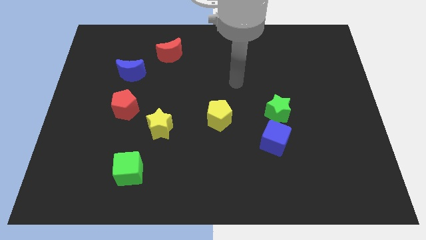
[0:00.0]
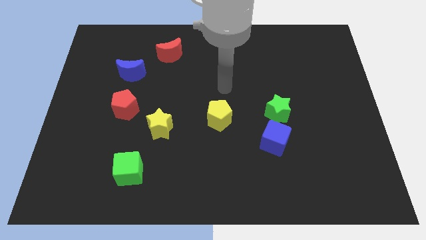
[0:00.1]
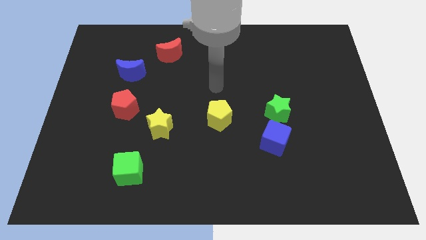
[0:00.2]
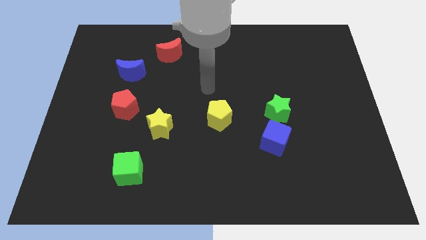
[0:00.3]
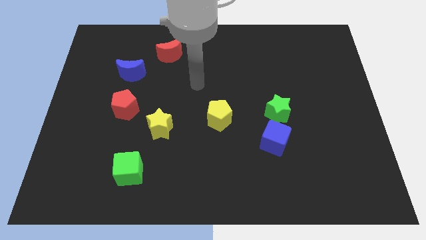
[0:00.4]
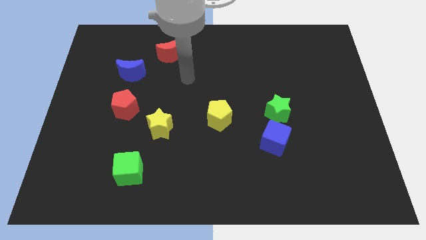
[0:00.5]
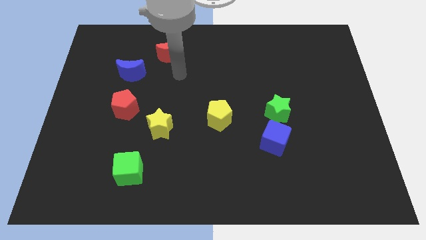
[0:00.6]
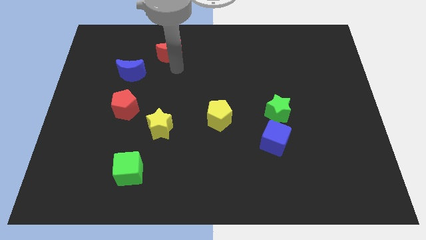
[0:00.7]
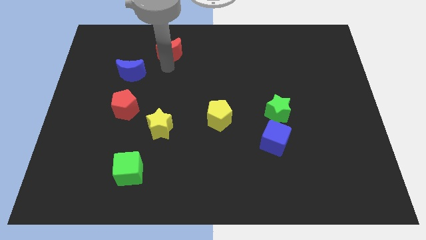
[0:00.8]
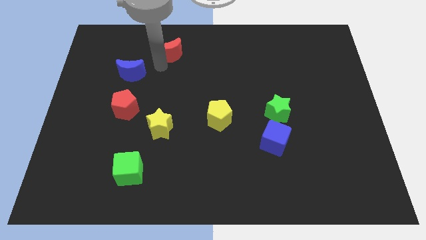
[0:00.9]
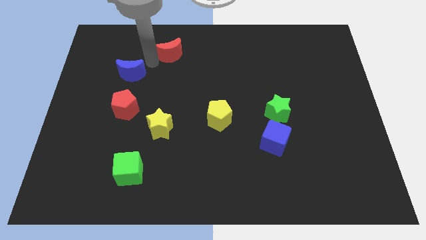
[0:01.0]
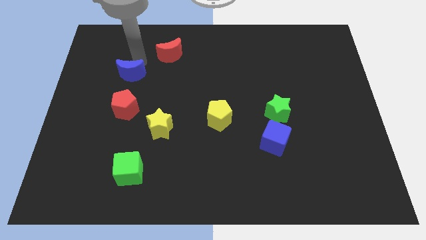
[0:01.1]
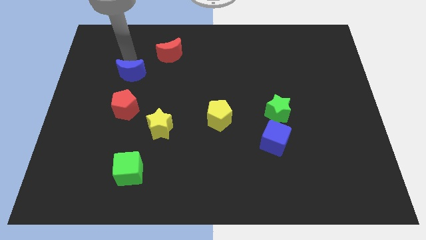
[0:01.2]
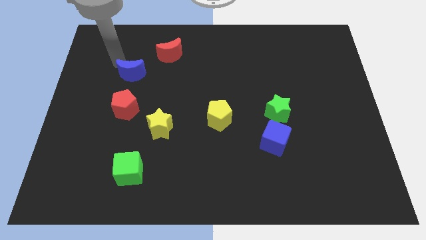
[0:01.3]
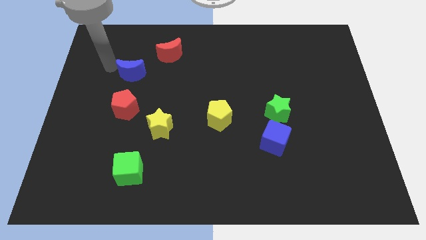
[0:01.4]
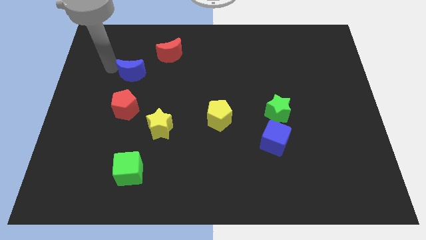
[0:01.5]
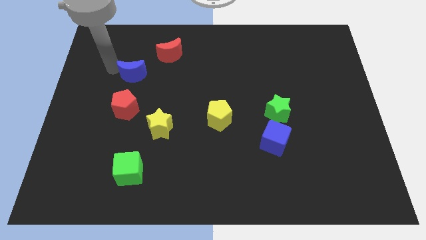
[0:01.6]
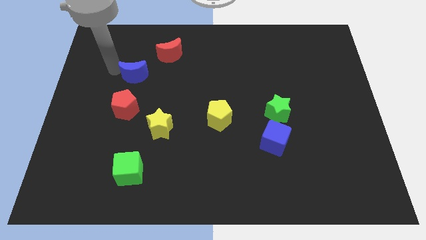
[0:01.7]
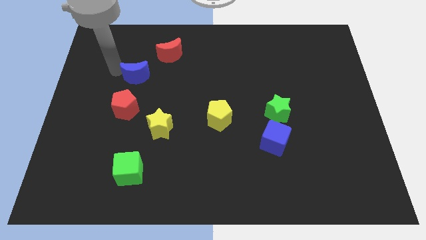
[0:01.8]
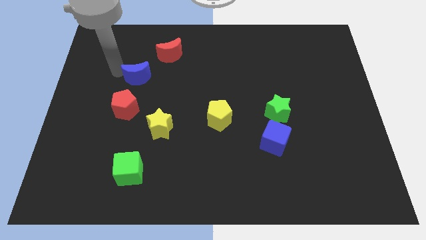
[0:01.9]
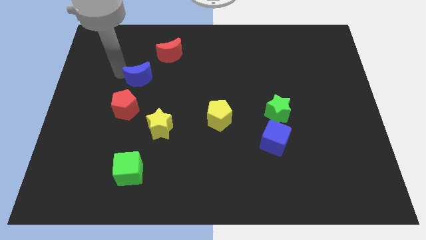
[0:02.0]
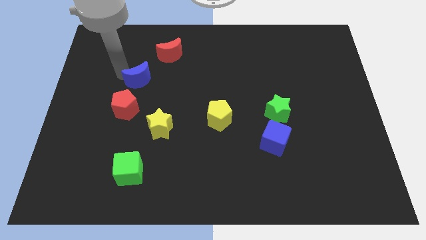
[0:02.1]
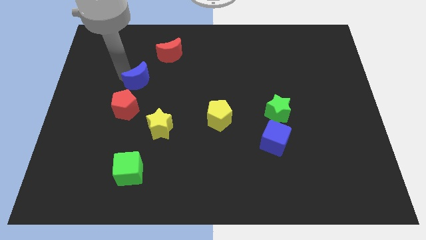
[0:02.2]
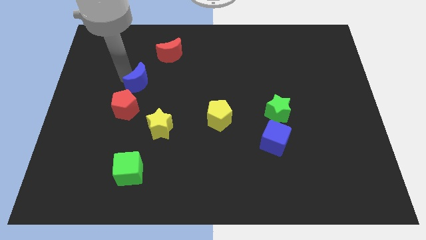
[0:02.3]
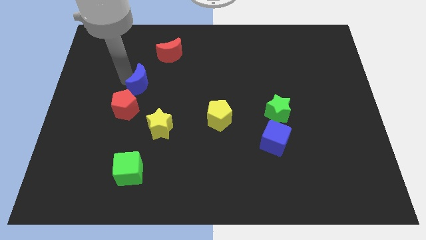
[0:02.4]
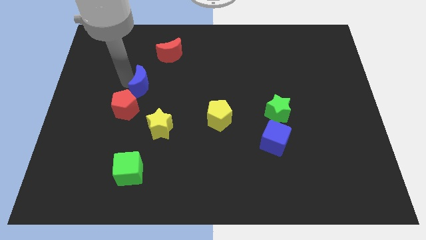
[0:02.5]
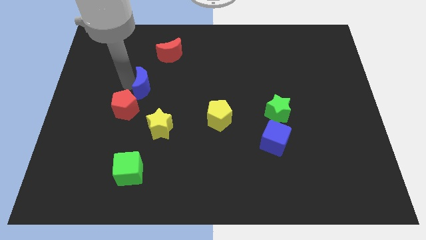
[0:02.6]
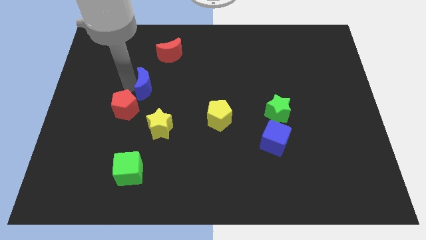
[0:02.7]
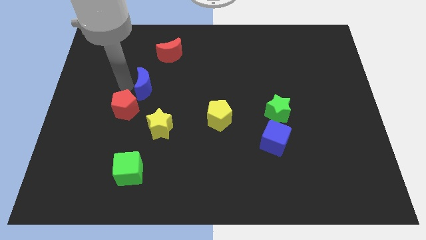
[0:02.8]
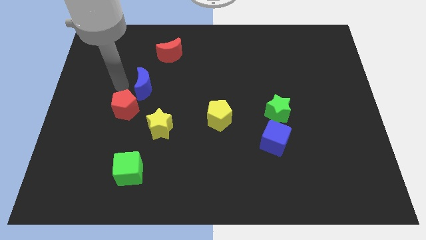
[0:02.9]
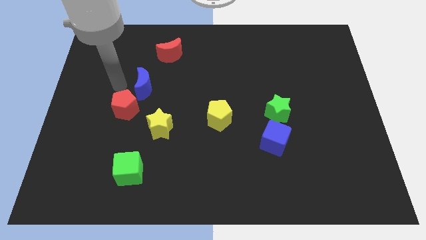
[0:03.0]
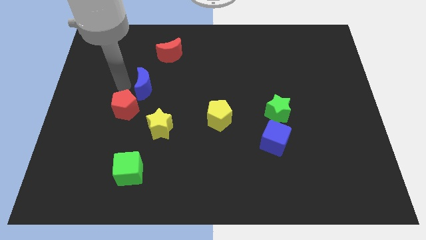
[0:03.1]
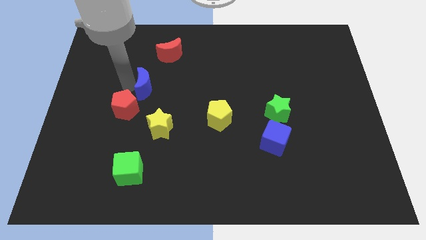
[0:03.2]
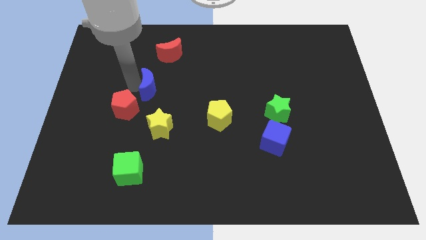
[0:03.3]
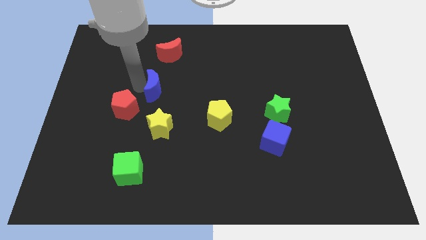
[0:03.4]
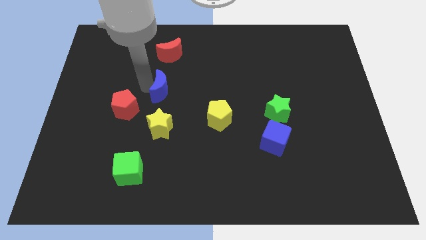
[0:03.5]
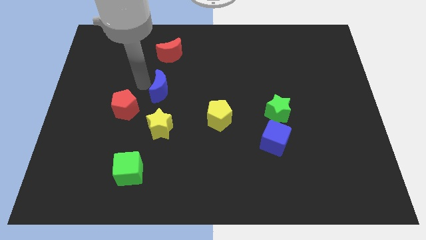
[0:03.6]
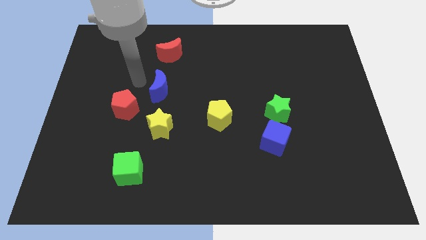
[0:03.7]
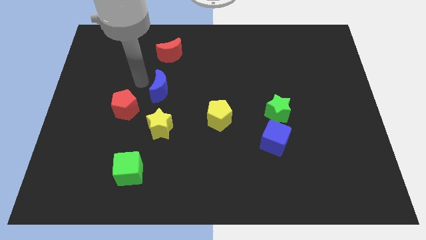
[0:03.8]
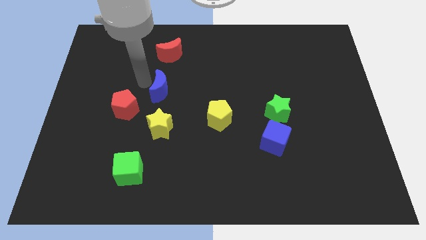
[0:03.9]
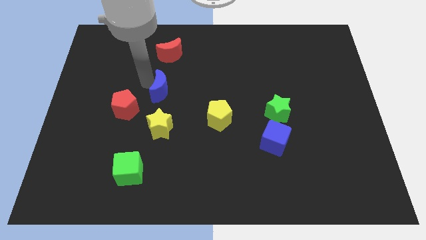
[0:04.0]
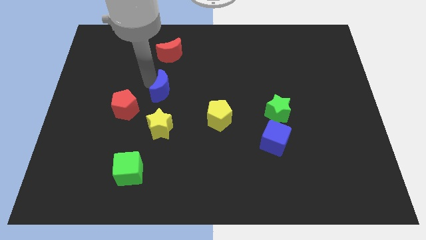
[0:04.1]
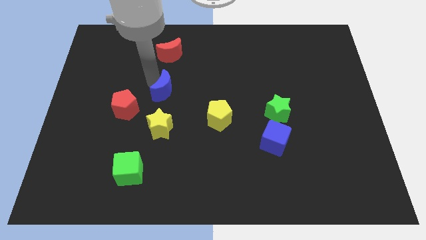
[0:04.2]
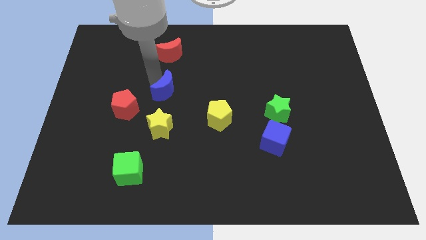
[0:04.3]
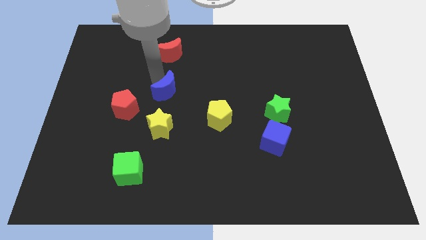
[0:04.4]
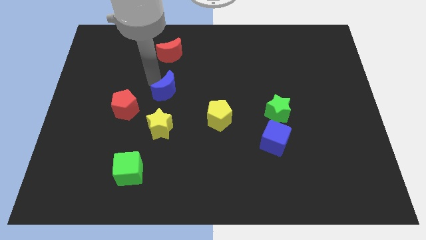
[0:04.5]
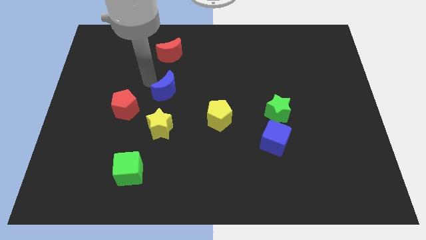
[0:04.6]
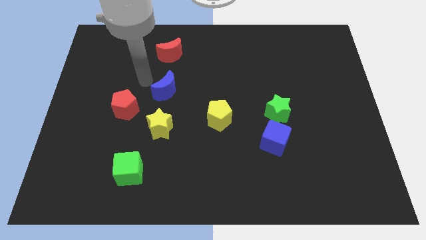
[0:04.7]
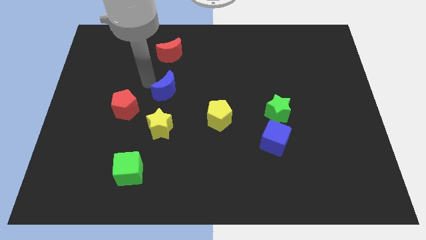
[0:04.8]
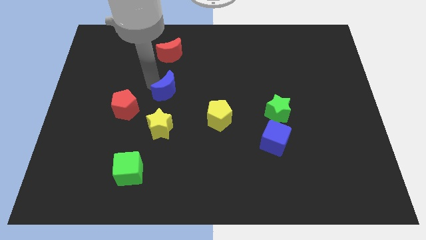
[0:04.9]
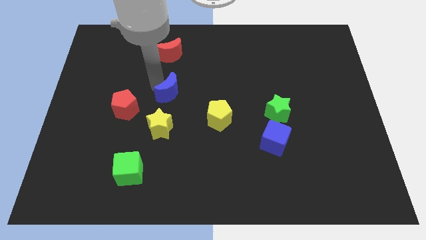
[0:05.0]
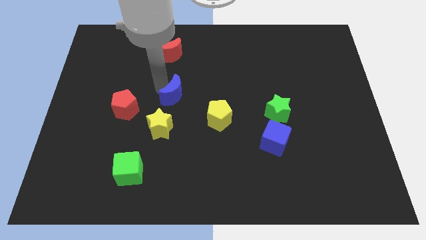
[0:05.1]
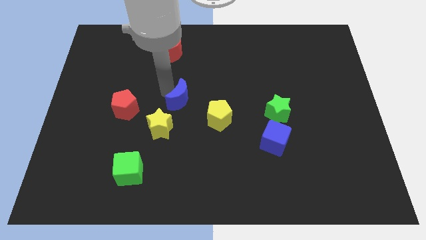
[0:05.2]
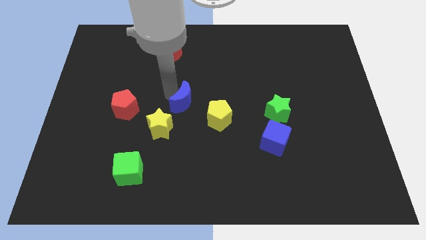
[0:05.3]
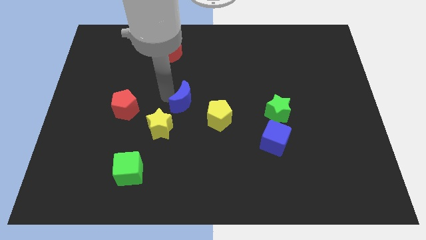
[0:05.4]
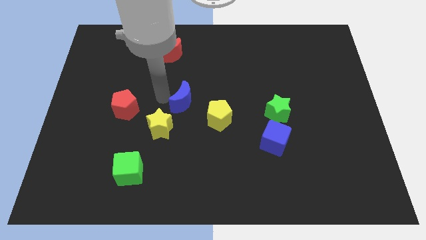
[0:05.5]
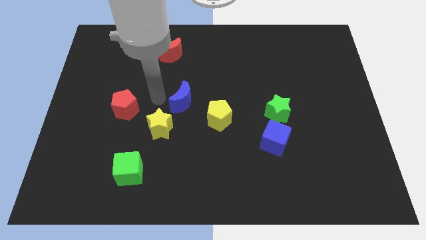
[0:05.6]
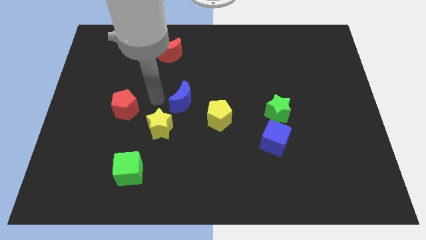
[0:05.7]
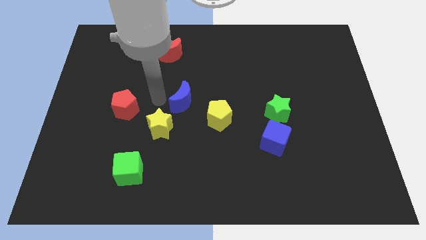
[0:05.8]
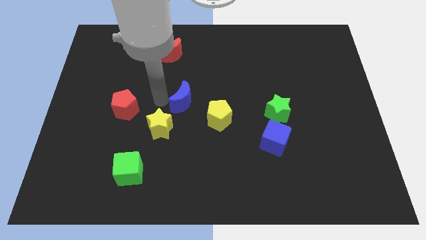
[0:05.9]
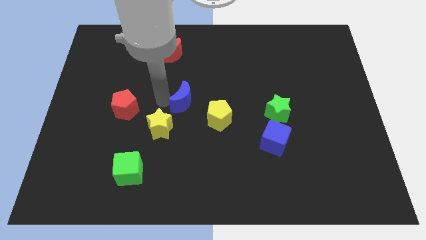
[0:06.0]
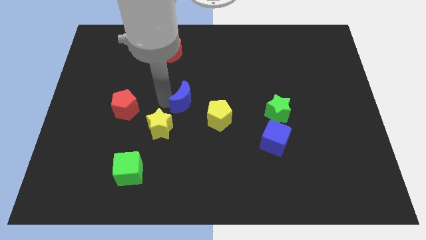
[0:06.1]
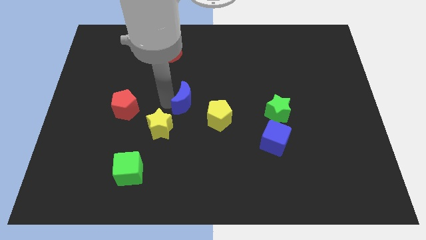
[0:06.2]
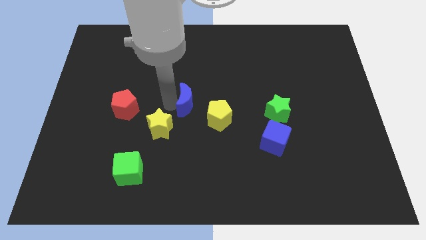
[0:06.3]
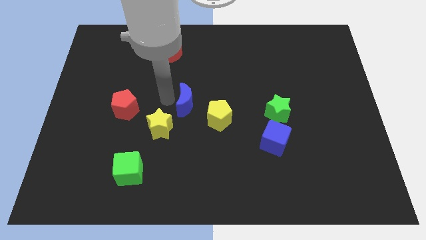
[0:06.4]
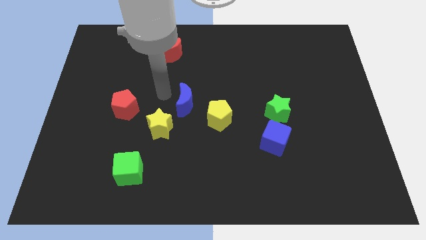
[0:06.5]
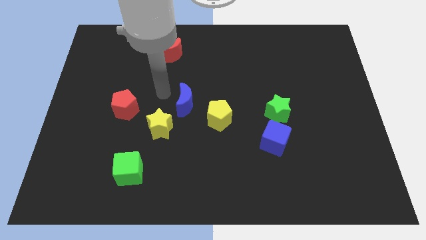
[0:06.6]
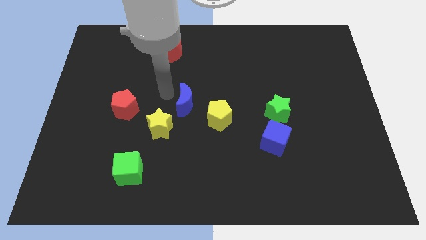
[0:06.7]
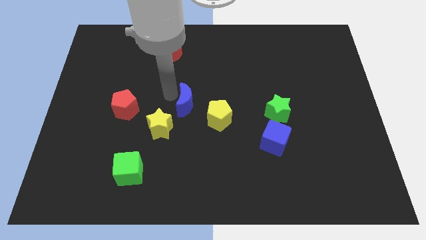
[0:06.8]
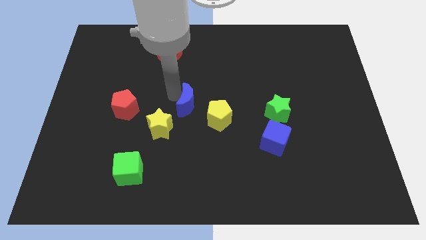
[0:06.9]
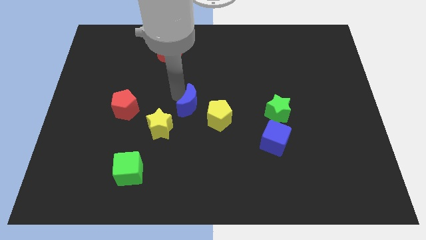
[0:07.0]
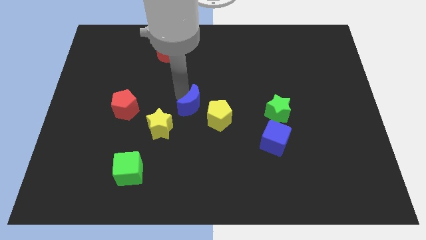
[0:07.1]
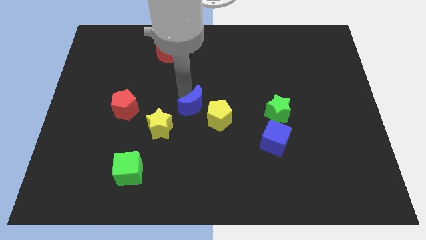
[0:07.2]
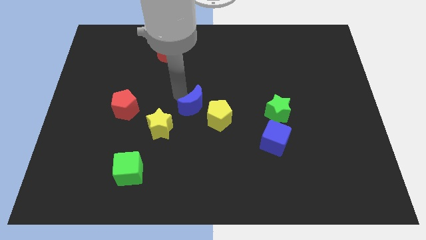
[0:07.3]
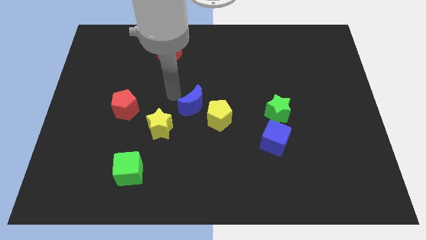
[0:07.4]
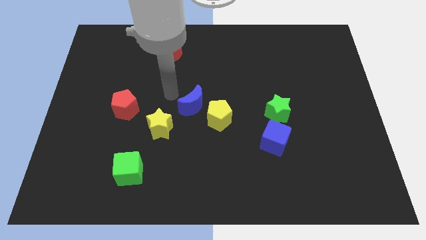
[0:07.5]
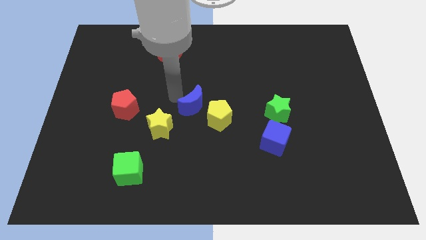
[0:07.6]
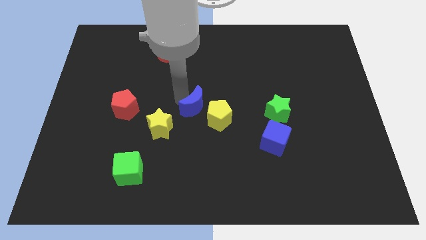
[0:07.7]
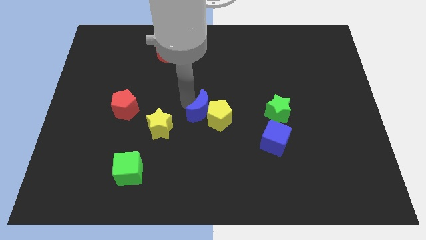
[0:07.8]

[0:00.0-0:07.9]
slide the blue moon towards the yellow pentagon
